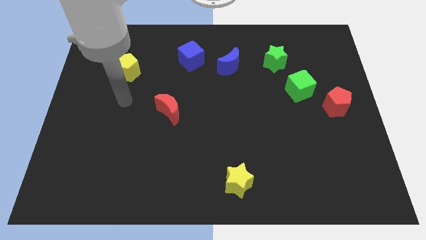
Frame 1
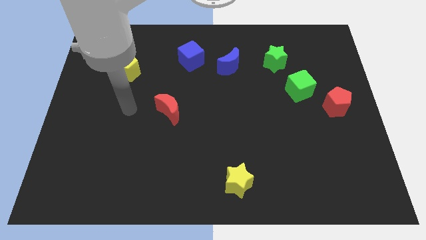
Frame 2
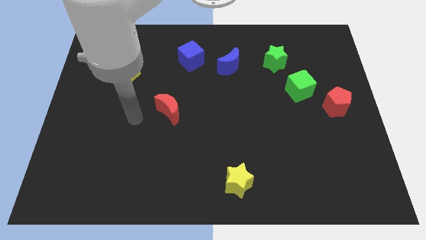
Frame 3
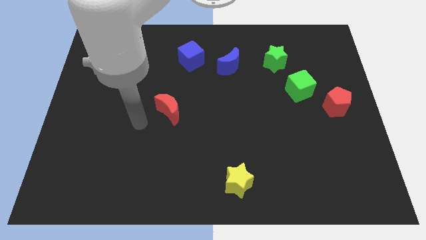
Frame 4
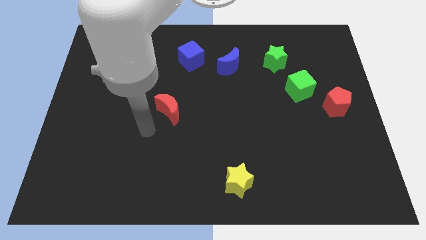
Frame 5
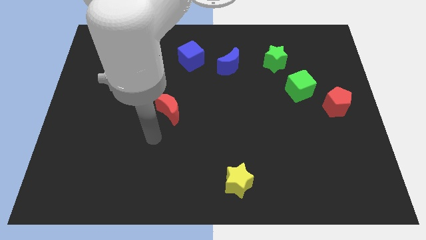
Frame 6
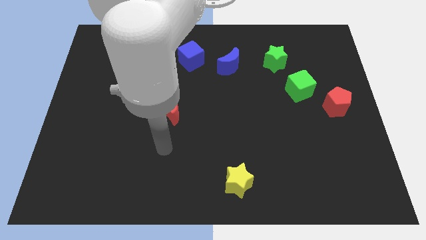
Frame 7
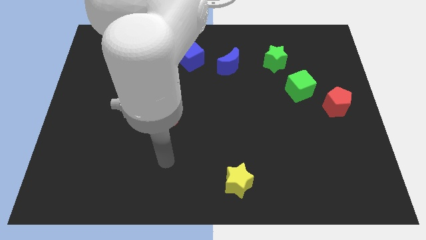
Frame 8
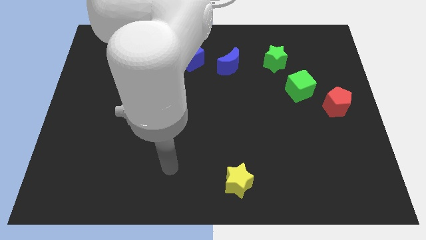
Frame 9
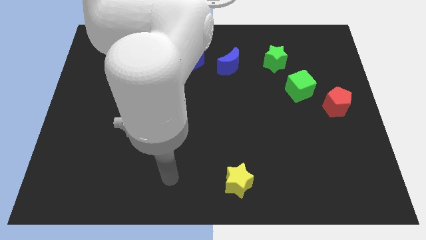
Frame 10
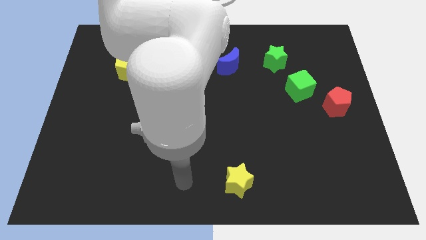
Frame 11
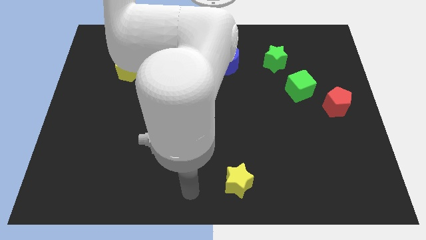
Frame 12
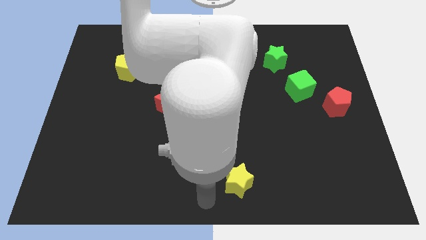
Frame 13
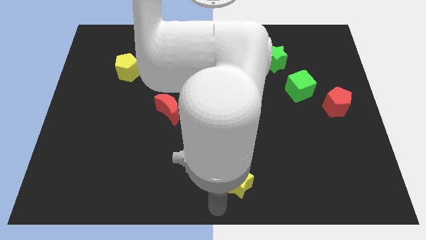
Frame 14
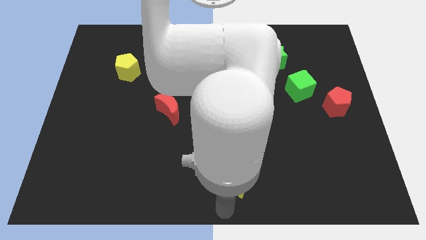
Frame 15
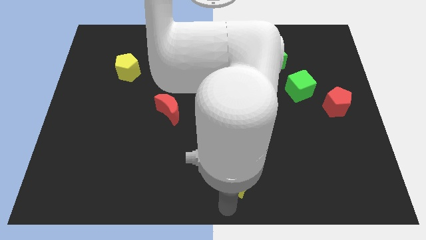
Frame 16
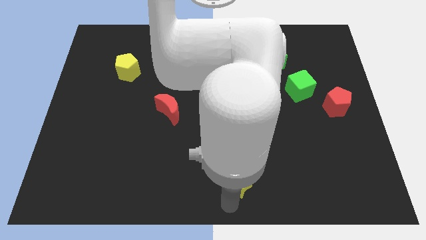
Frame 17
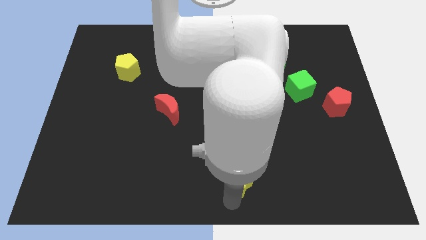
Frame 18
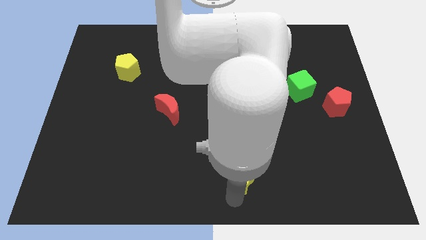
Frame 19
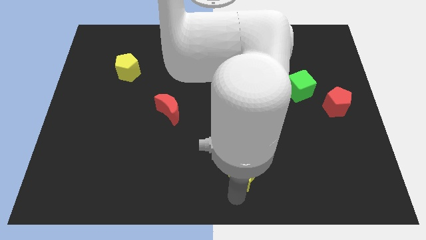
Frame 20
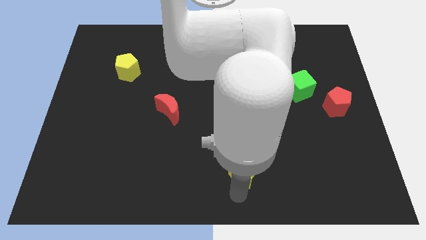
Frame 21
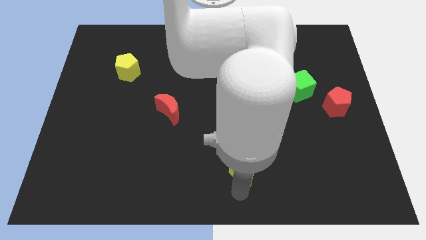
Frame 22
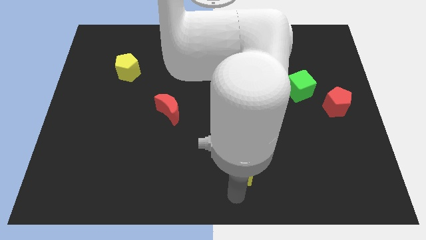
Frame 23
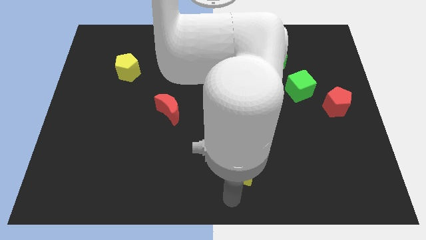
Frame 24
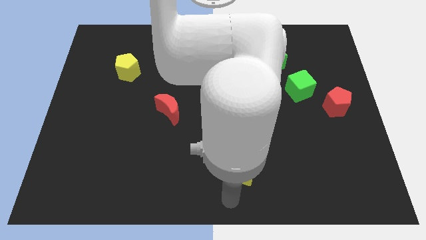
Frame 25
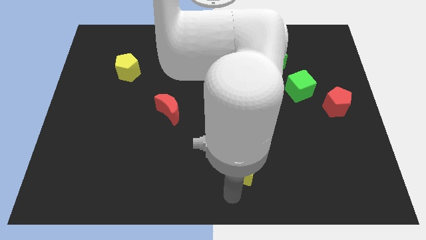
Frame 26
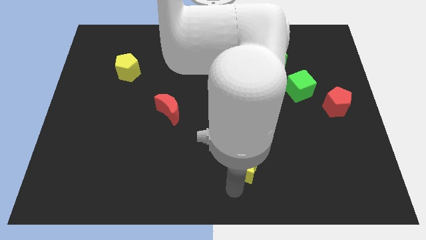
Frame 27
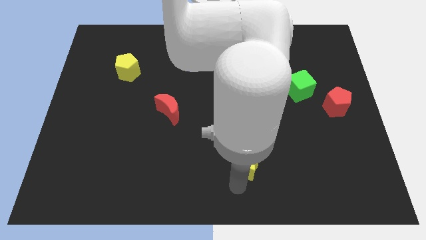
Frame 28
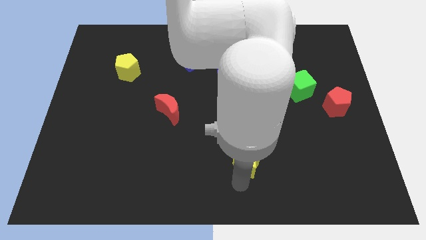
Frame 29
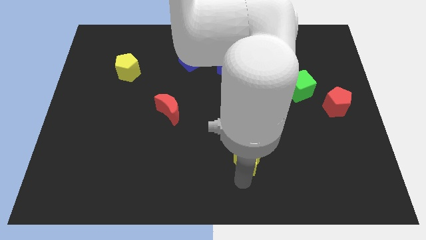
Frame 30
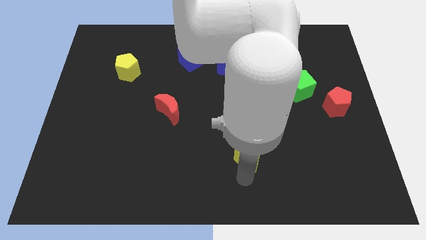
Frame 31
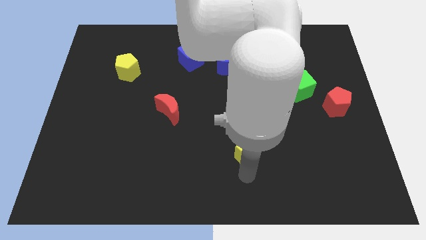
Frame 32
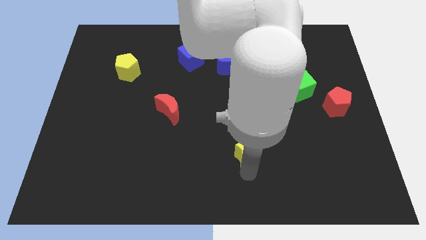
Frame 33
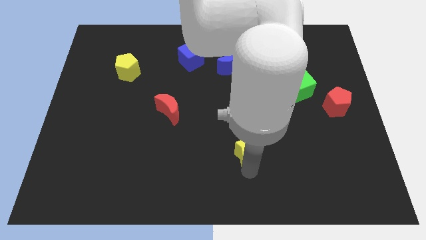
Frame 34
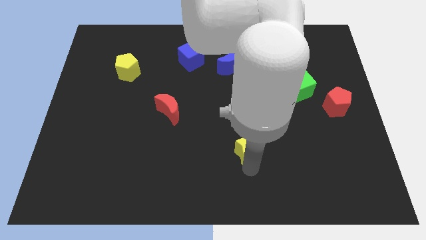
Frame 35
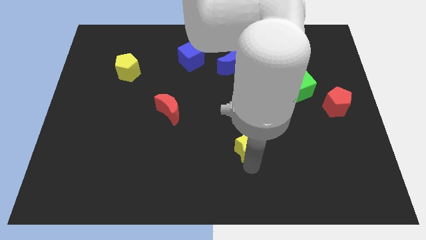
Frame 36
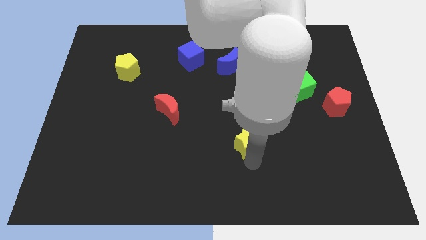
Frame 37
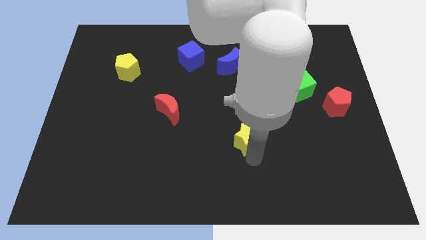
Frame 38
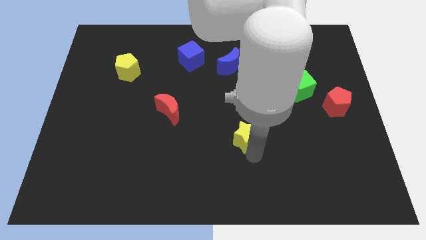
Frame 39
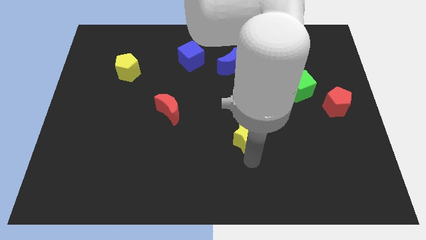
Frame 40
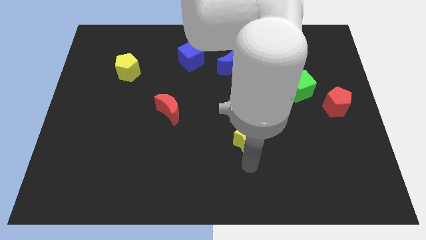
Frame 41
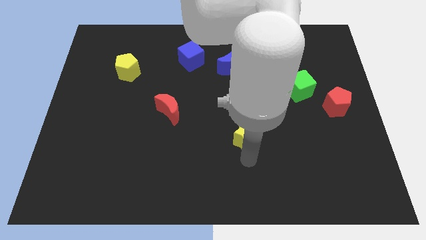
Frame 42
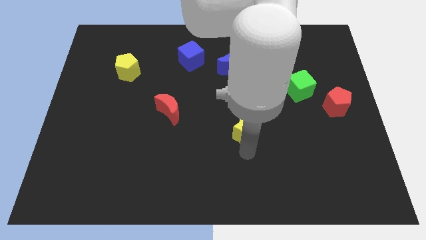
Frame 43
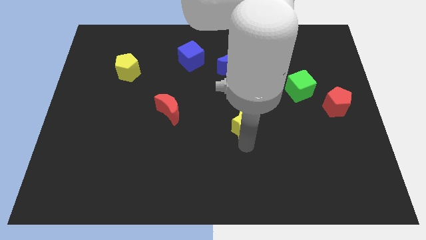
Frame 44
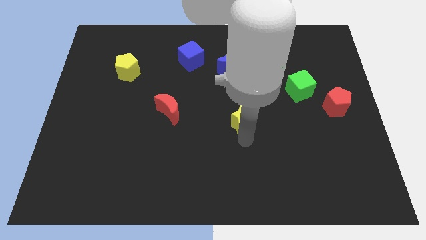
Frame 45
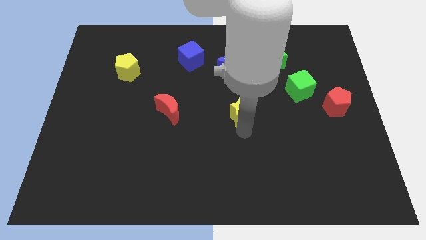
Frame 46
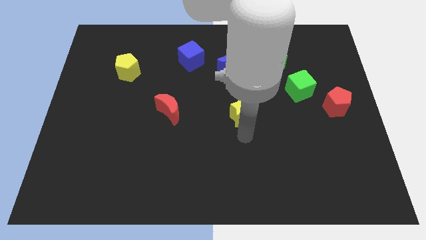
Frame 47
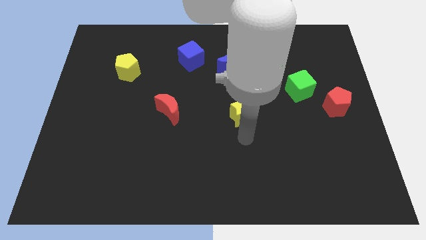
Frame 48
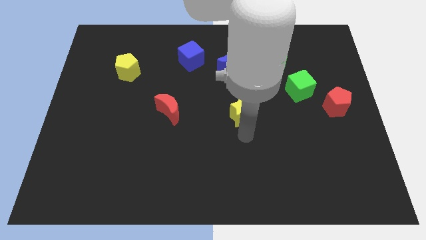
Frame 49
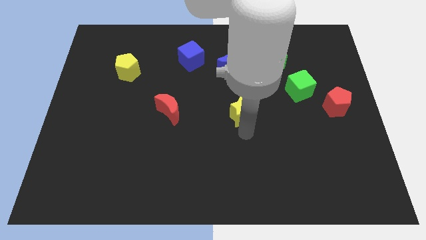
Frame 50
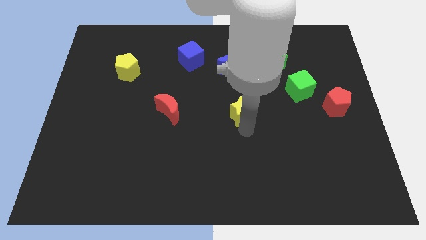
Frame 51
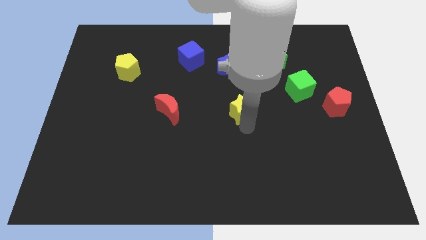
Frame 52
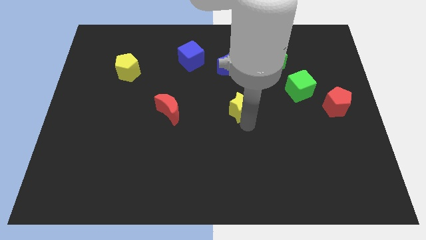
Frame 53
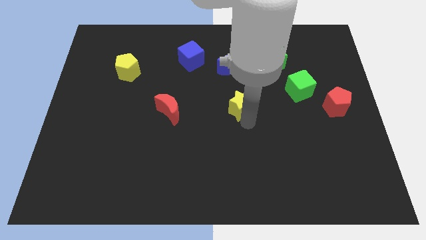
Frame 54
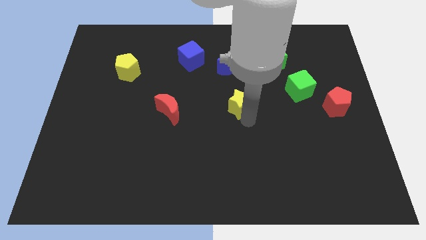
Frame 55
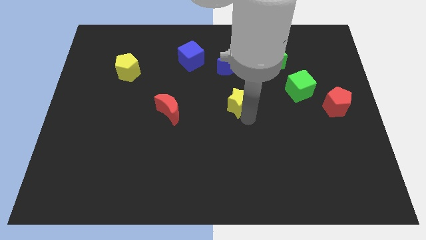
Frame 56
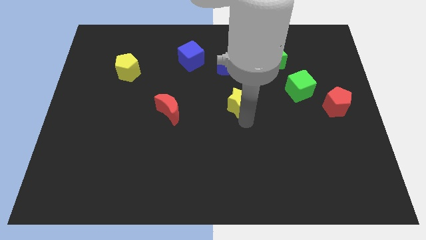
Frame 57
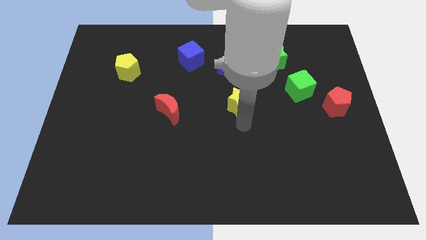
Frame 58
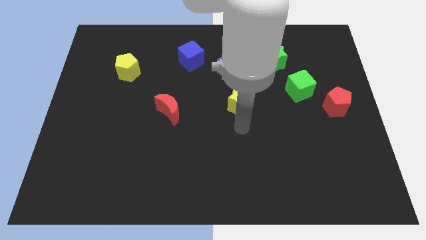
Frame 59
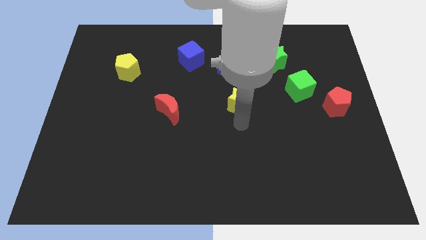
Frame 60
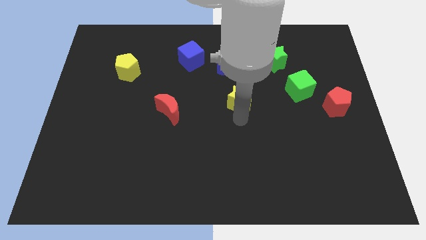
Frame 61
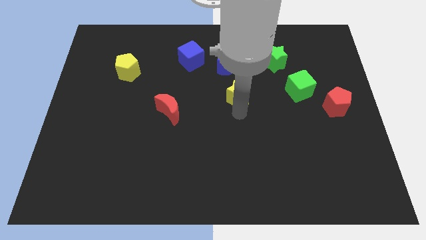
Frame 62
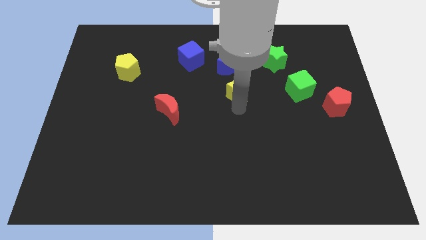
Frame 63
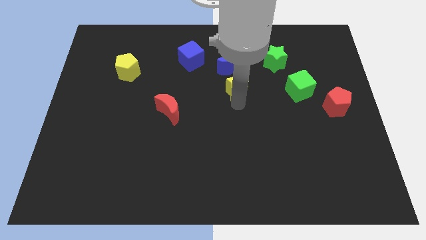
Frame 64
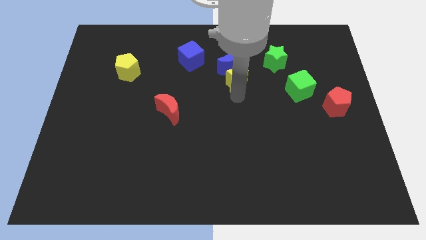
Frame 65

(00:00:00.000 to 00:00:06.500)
slide the yellow star close to the blue moon

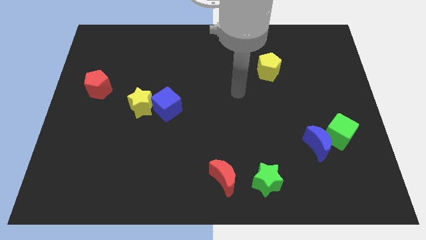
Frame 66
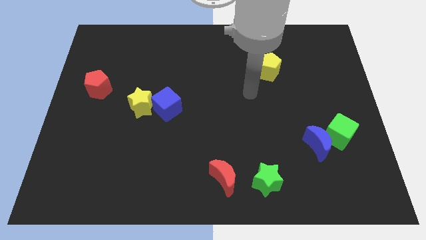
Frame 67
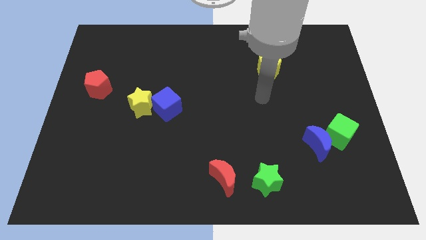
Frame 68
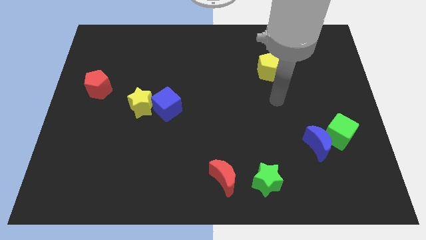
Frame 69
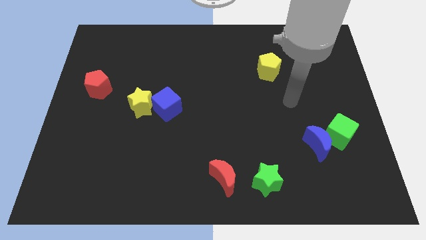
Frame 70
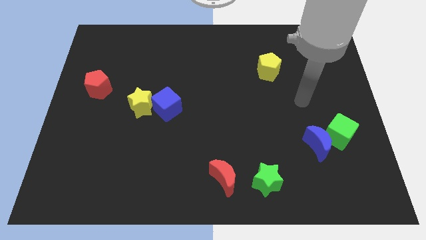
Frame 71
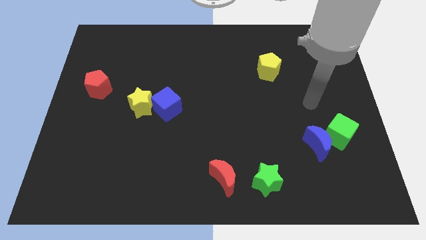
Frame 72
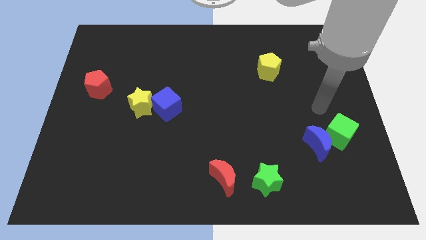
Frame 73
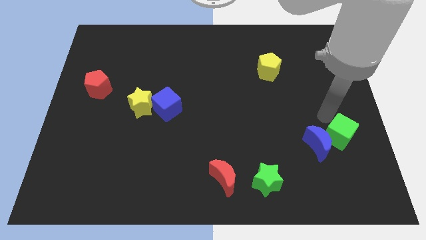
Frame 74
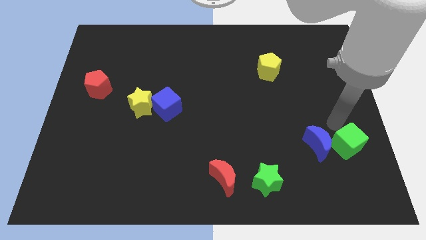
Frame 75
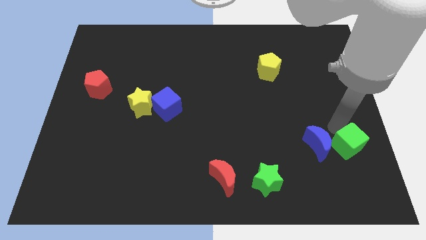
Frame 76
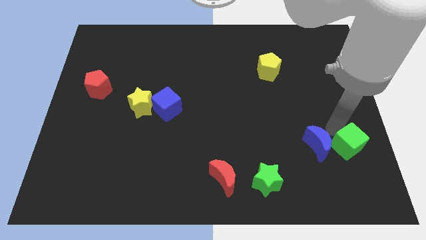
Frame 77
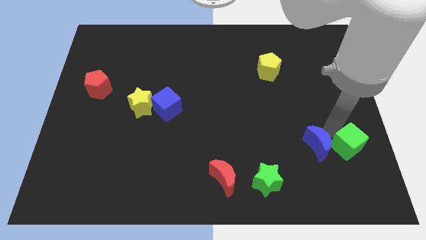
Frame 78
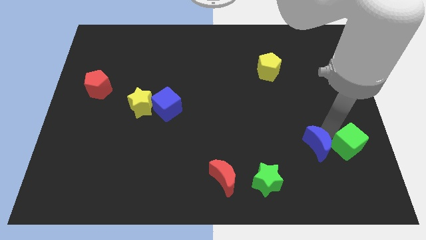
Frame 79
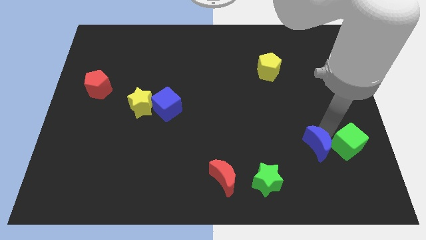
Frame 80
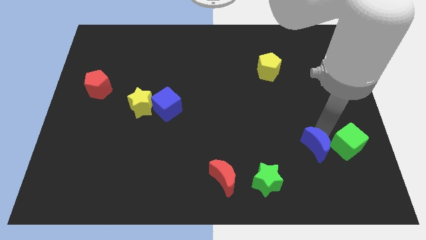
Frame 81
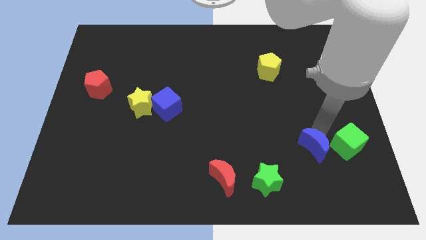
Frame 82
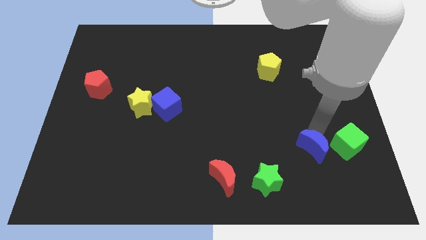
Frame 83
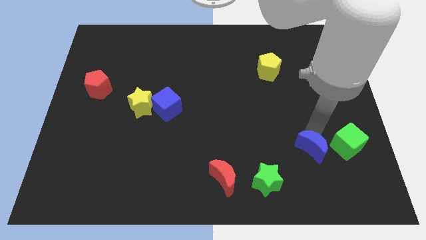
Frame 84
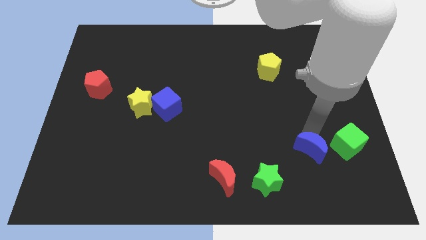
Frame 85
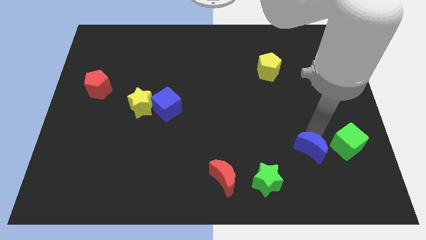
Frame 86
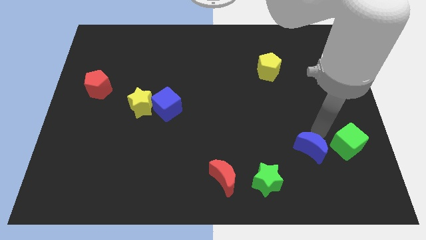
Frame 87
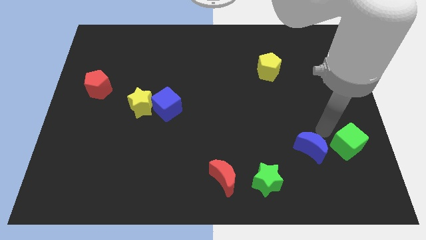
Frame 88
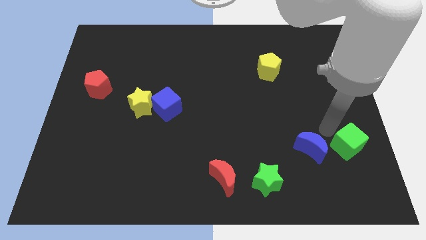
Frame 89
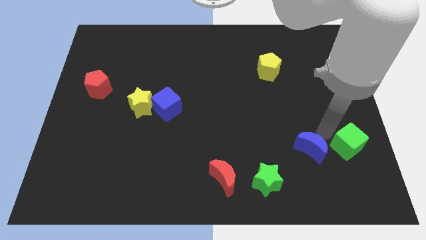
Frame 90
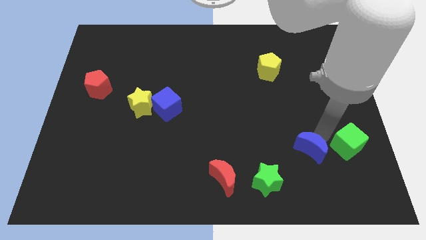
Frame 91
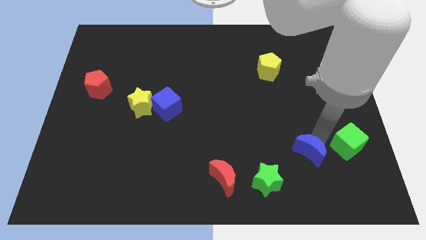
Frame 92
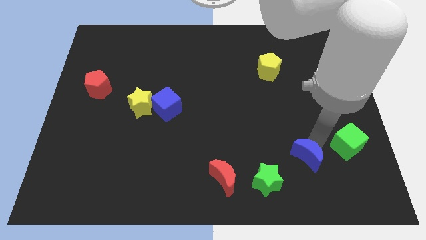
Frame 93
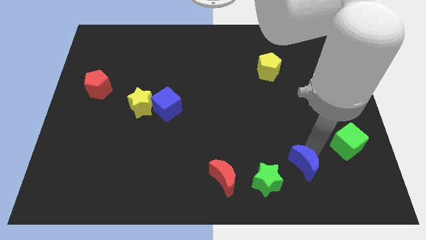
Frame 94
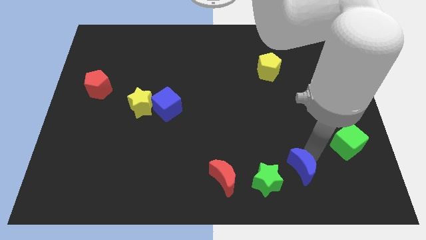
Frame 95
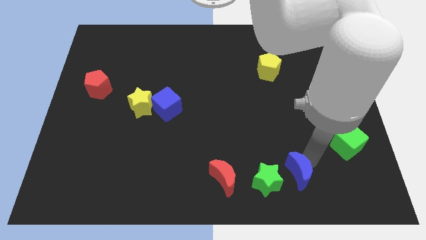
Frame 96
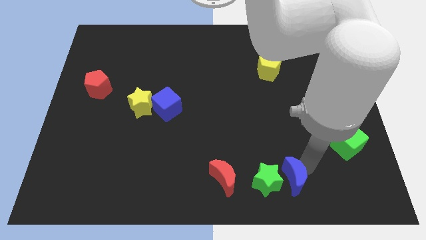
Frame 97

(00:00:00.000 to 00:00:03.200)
slide the blue moon to the green star
